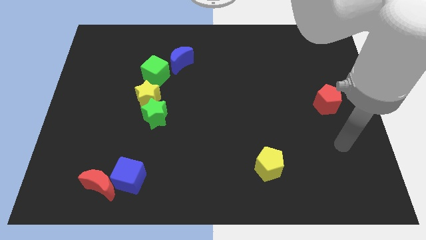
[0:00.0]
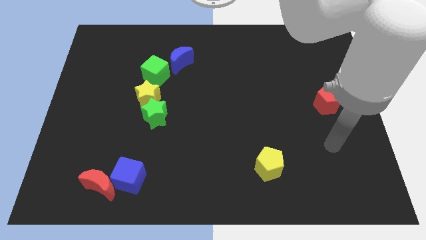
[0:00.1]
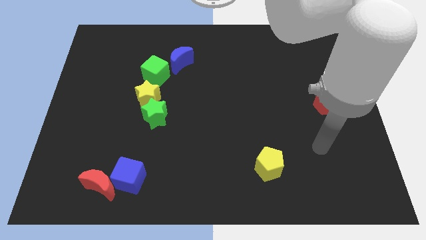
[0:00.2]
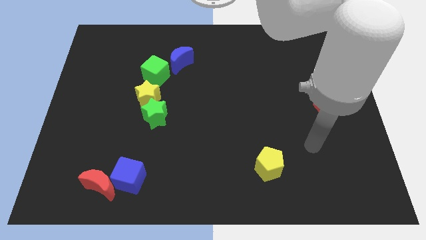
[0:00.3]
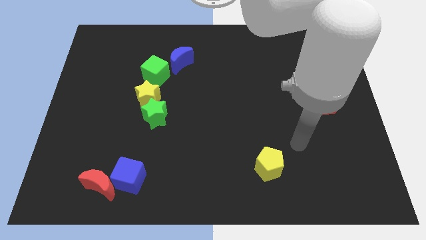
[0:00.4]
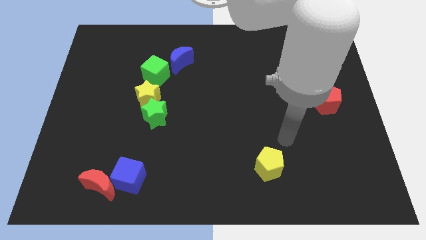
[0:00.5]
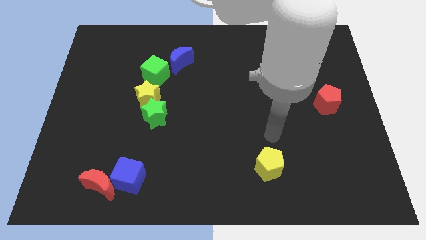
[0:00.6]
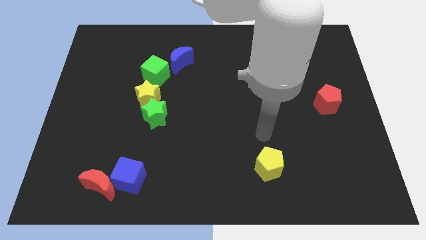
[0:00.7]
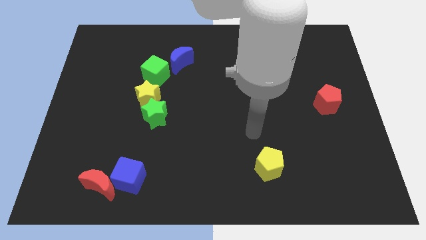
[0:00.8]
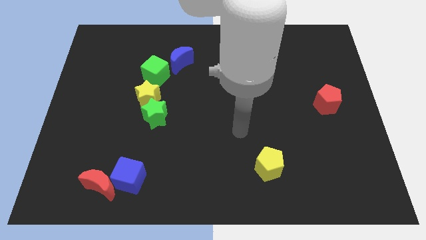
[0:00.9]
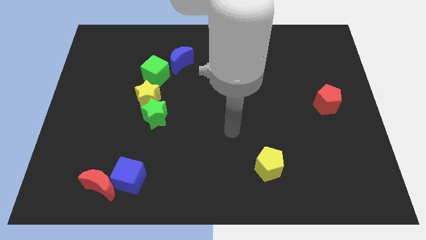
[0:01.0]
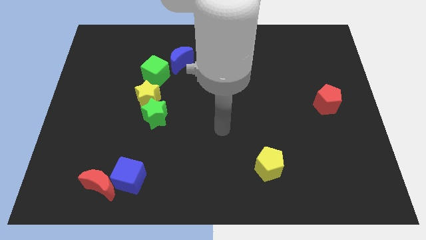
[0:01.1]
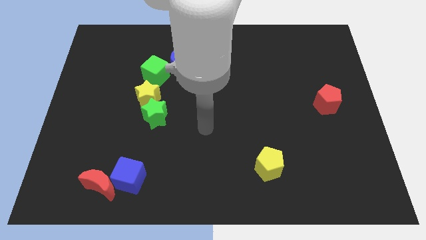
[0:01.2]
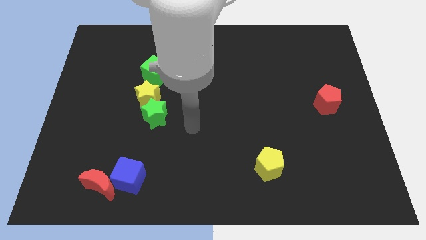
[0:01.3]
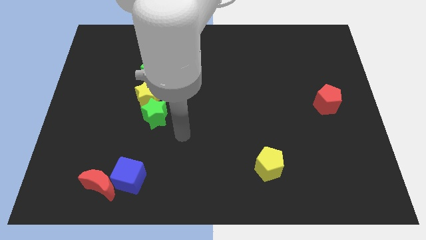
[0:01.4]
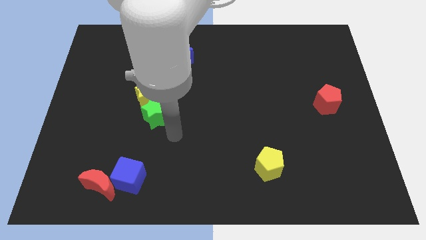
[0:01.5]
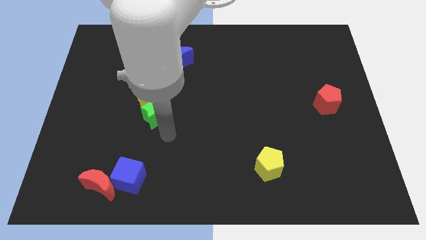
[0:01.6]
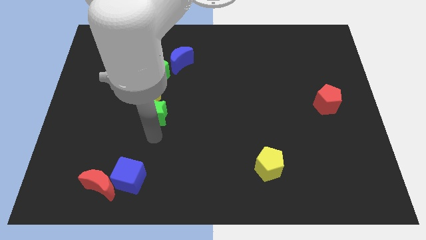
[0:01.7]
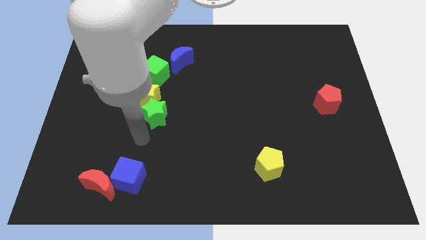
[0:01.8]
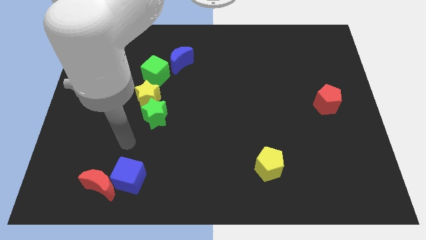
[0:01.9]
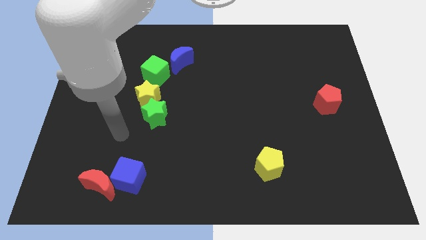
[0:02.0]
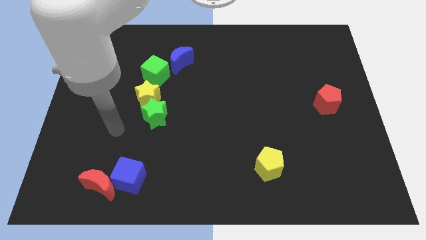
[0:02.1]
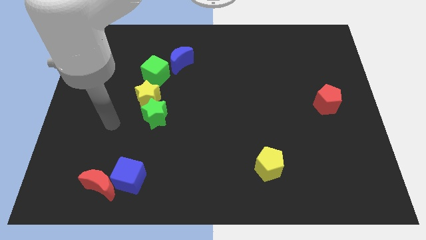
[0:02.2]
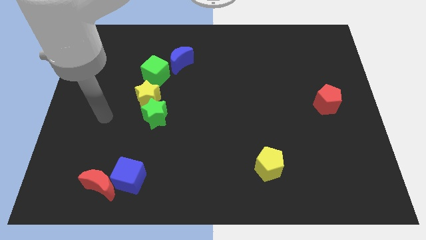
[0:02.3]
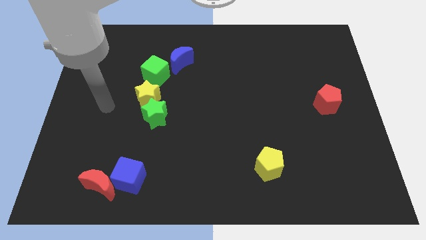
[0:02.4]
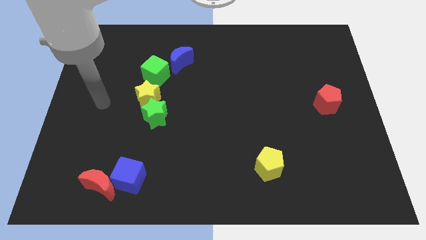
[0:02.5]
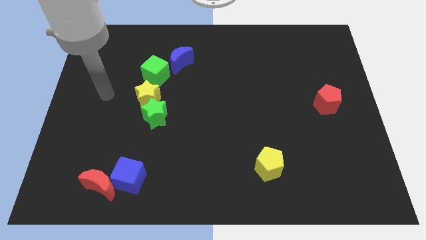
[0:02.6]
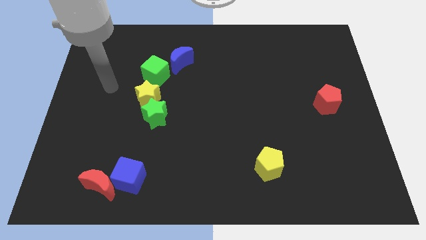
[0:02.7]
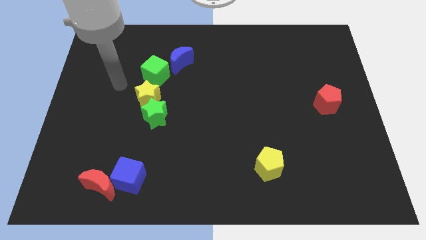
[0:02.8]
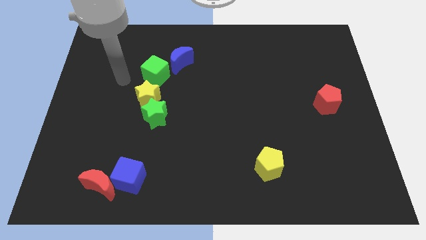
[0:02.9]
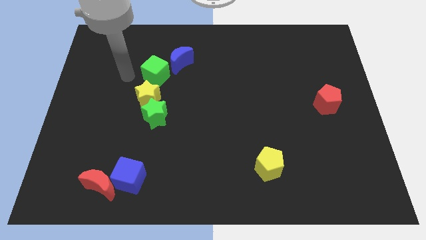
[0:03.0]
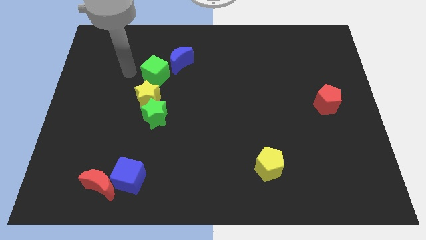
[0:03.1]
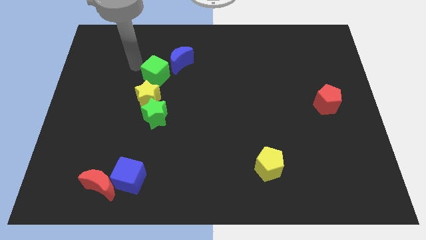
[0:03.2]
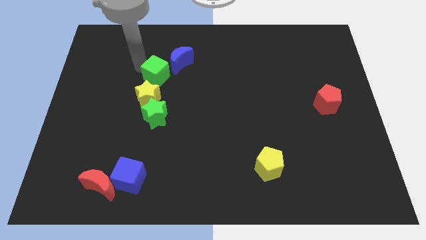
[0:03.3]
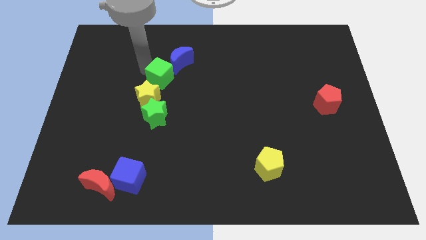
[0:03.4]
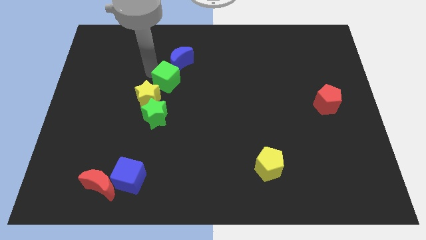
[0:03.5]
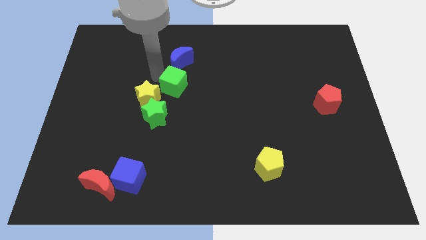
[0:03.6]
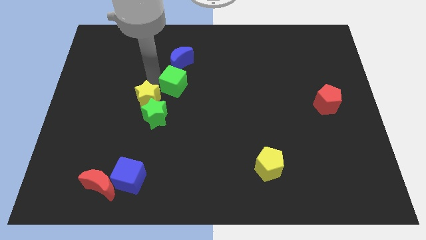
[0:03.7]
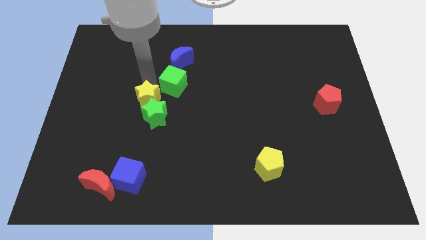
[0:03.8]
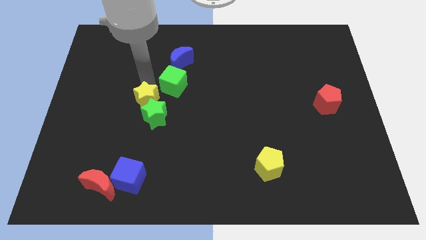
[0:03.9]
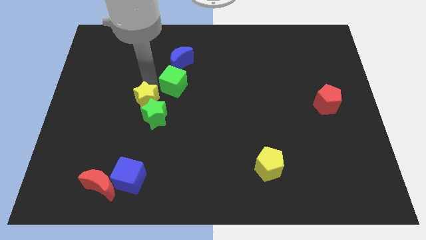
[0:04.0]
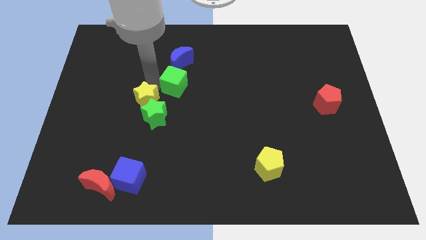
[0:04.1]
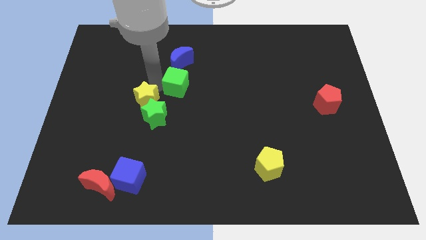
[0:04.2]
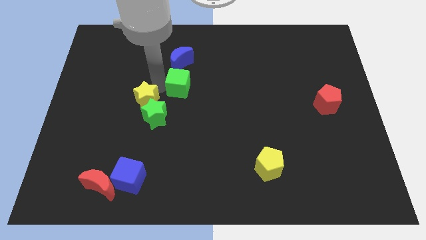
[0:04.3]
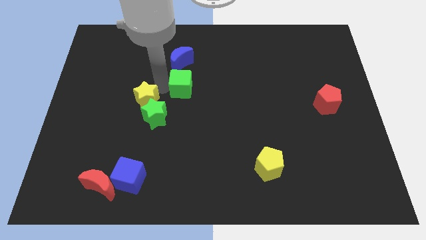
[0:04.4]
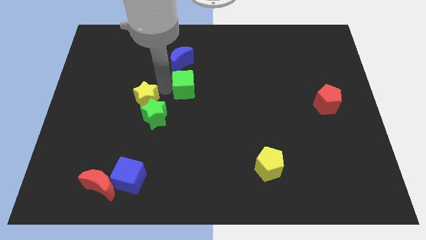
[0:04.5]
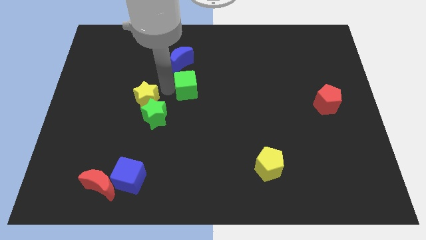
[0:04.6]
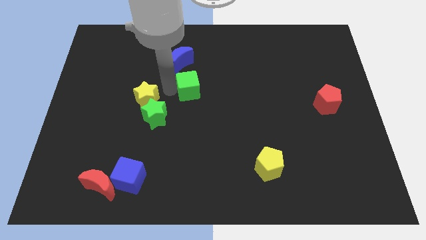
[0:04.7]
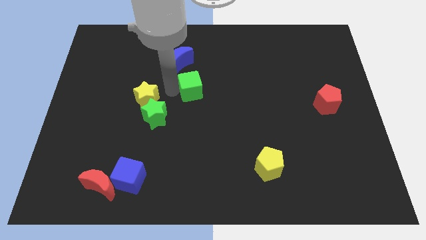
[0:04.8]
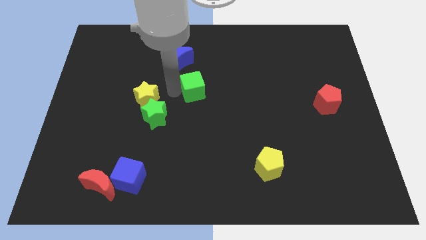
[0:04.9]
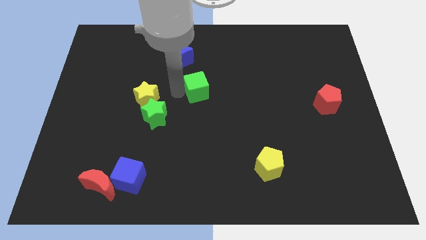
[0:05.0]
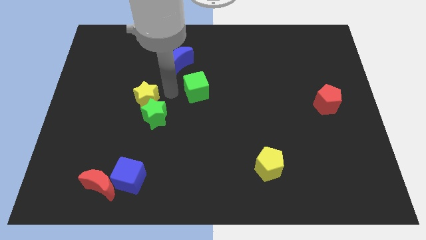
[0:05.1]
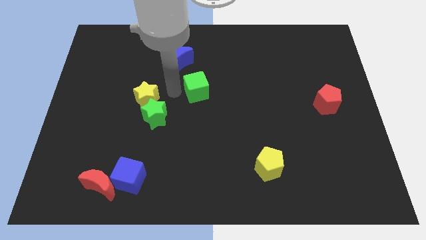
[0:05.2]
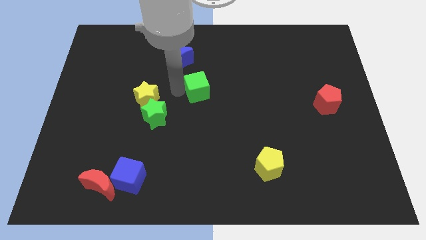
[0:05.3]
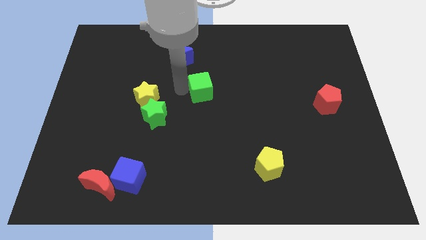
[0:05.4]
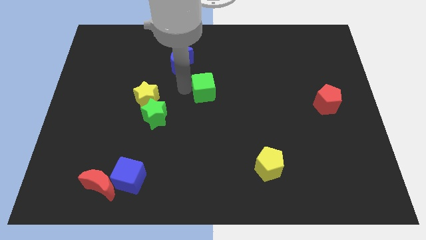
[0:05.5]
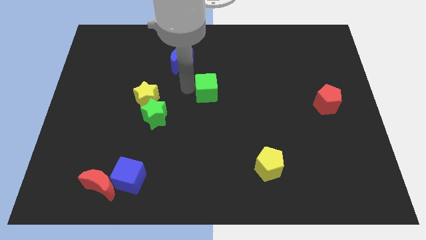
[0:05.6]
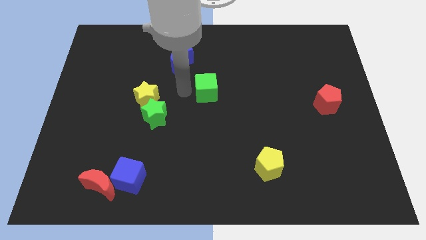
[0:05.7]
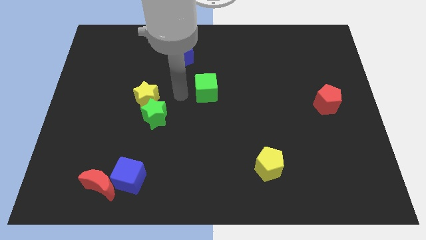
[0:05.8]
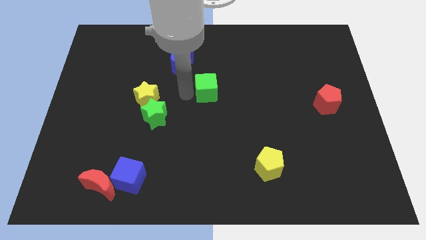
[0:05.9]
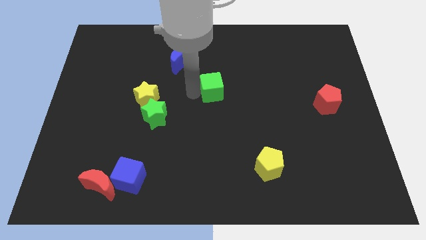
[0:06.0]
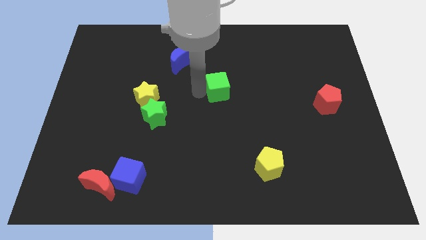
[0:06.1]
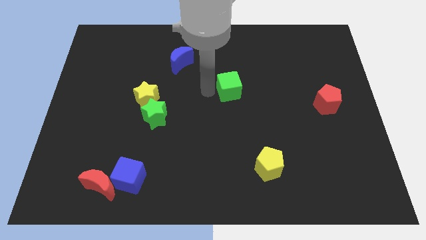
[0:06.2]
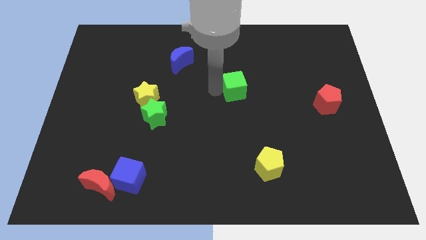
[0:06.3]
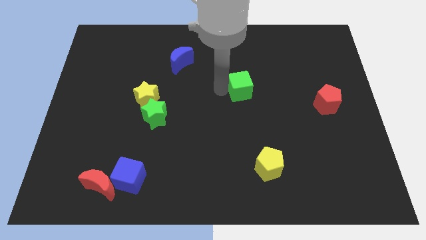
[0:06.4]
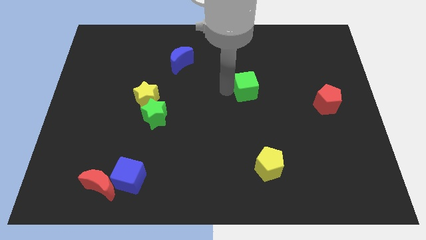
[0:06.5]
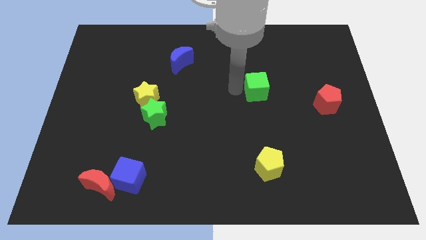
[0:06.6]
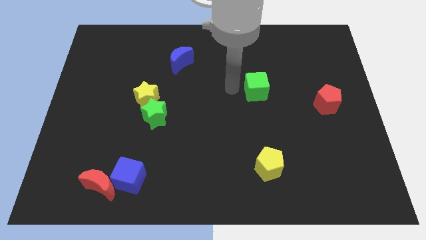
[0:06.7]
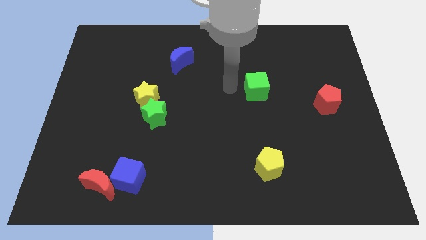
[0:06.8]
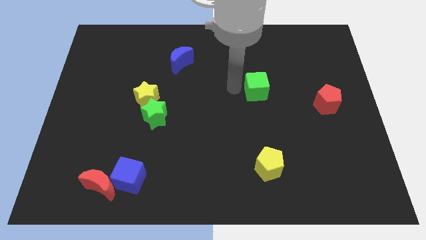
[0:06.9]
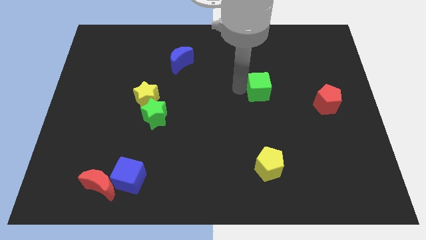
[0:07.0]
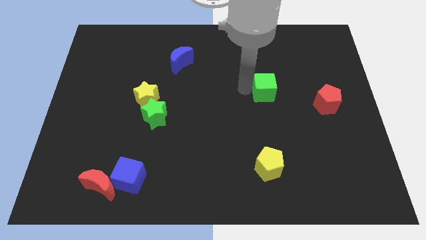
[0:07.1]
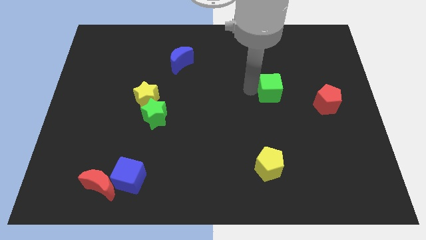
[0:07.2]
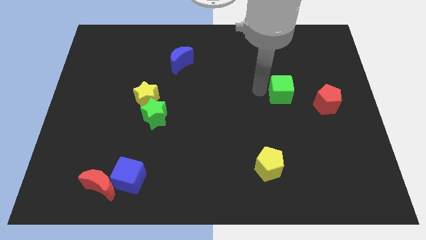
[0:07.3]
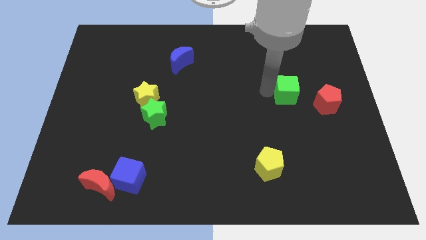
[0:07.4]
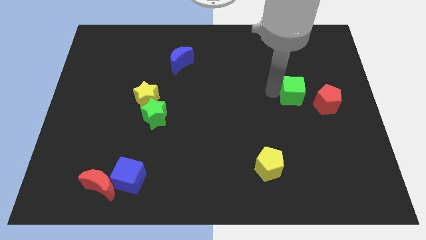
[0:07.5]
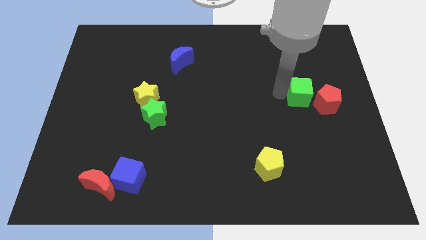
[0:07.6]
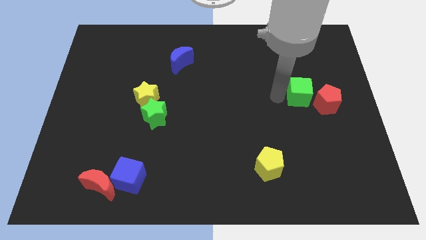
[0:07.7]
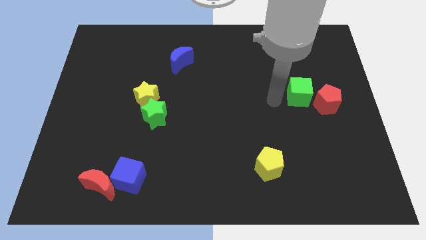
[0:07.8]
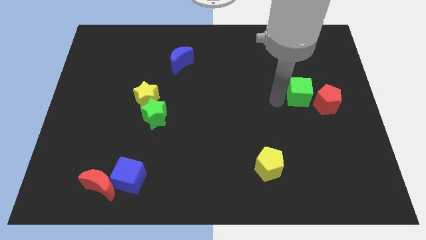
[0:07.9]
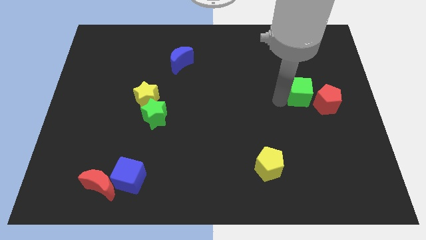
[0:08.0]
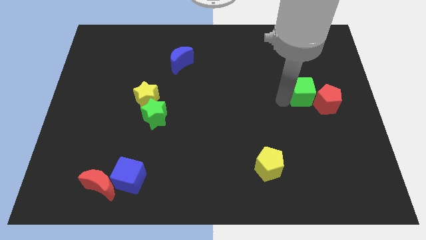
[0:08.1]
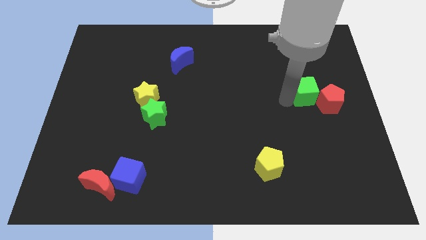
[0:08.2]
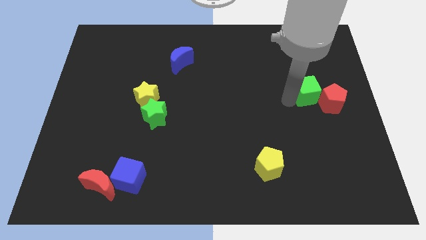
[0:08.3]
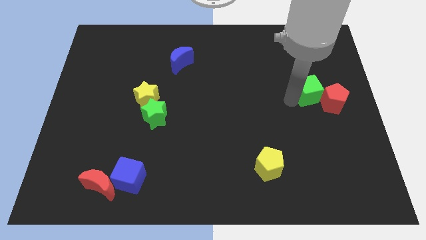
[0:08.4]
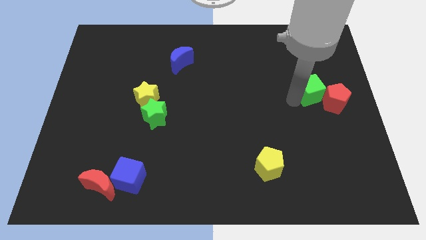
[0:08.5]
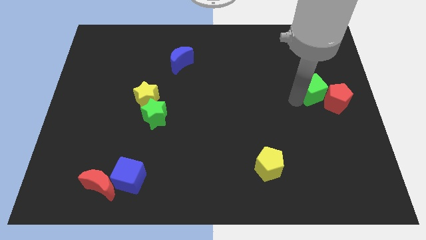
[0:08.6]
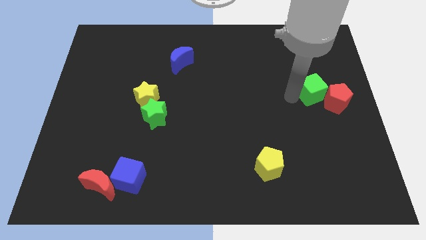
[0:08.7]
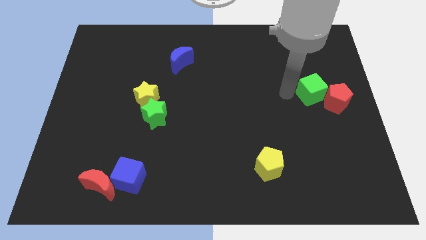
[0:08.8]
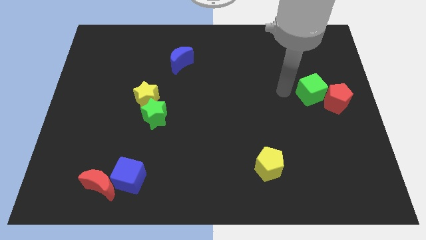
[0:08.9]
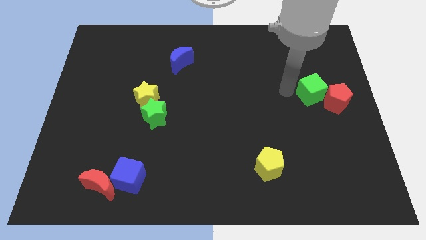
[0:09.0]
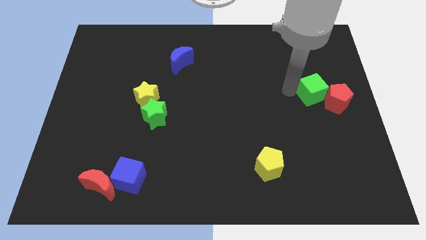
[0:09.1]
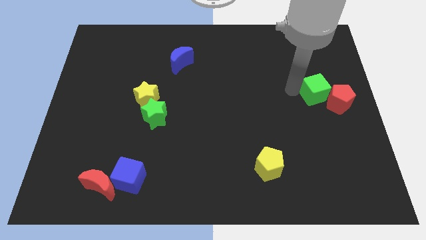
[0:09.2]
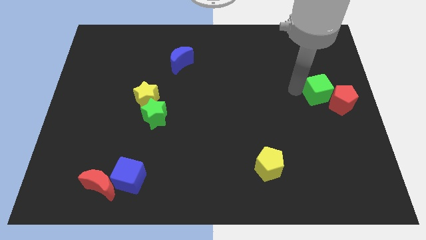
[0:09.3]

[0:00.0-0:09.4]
slide the green cube to the right side of the board
